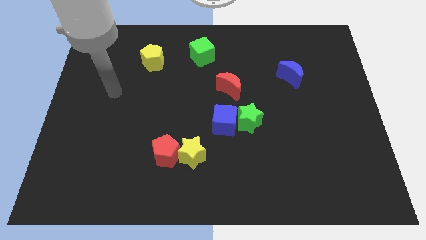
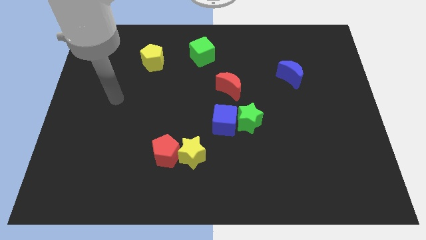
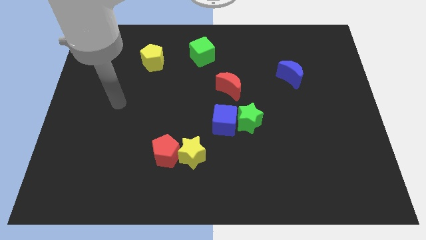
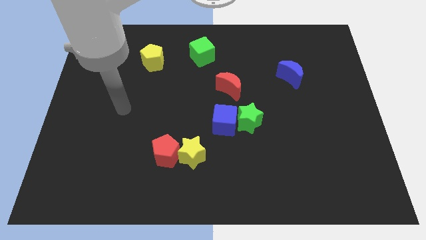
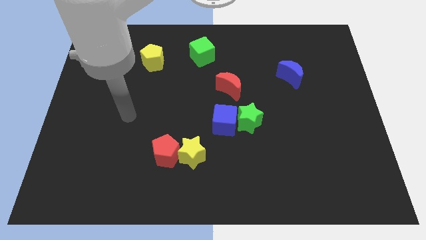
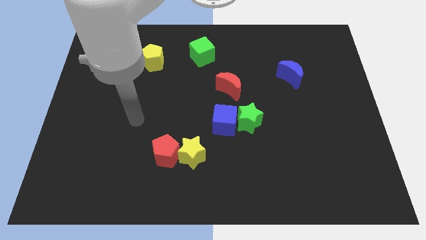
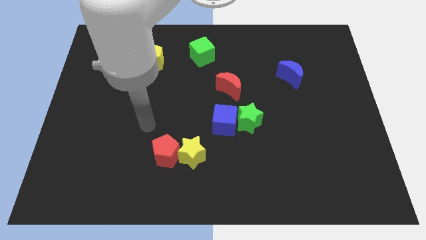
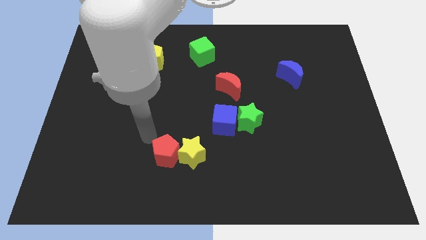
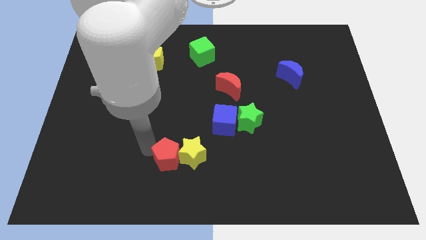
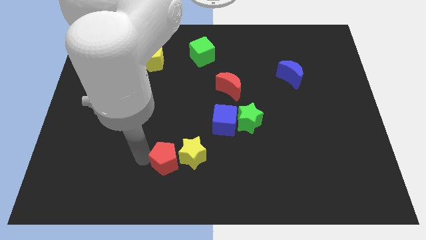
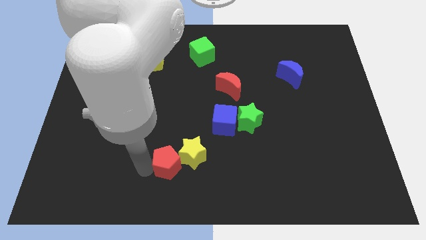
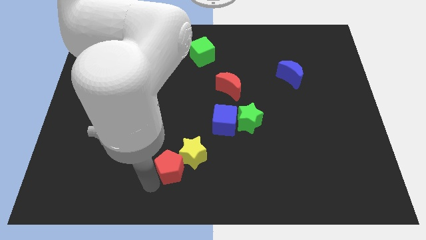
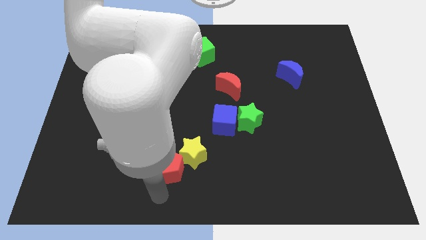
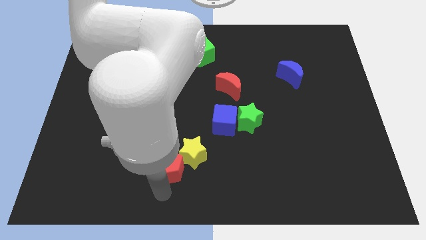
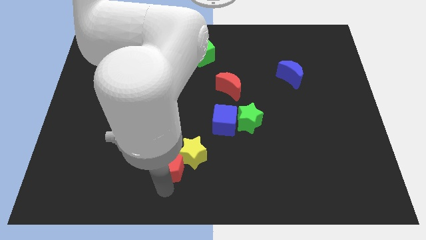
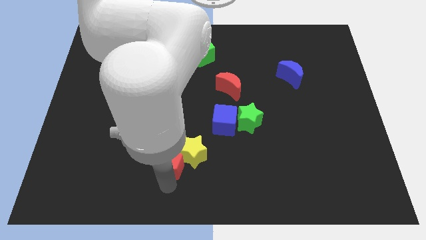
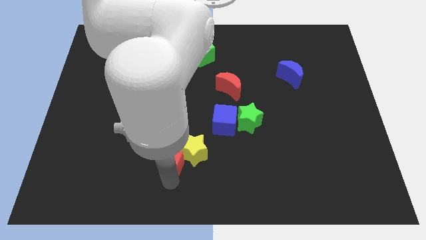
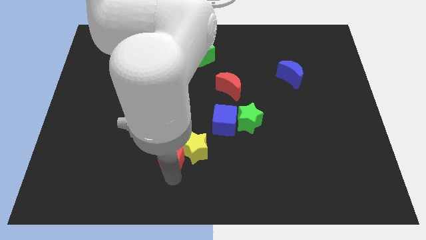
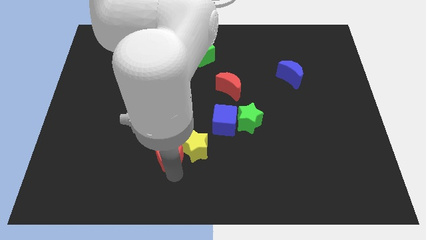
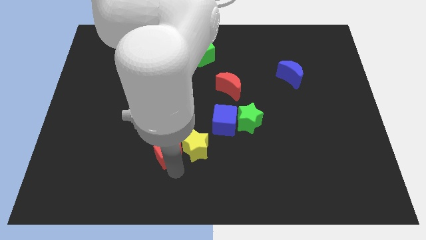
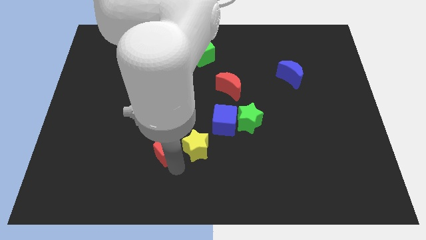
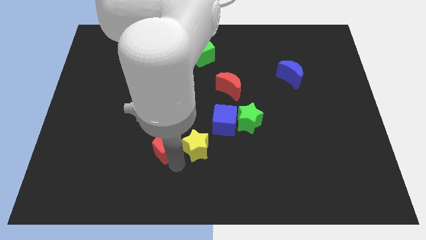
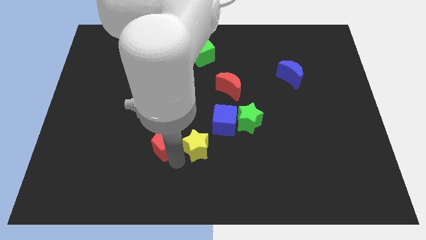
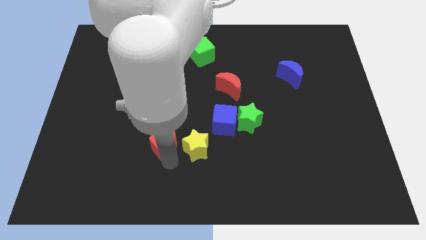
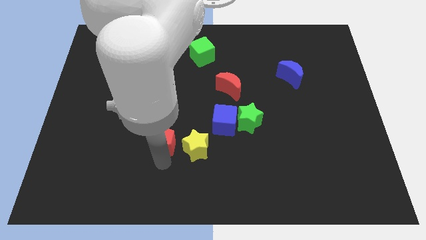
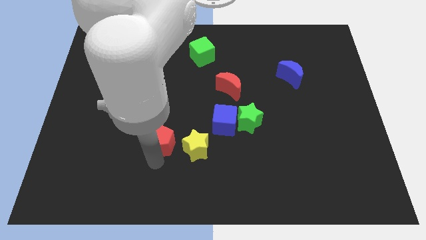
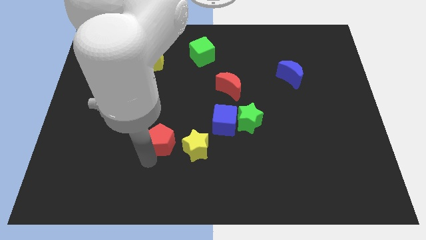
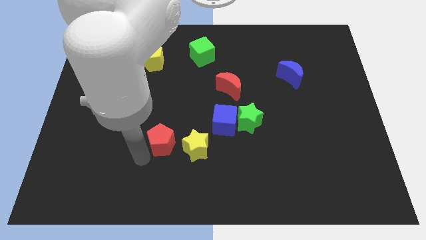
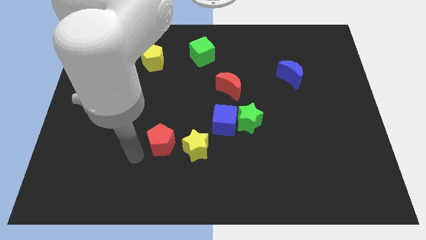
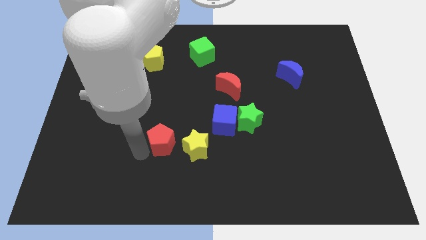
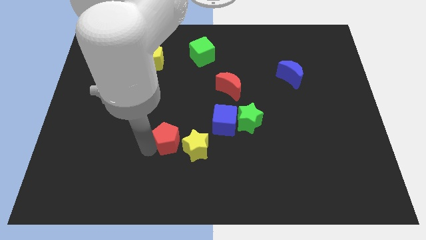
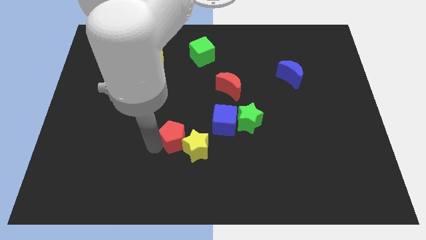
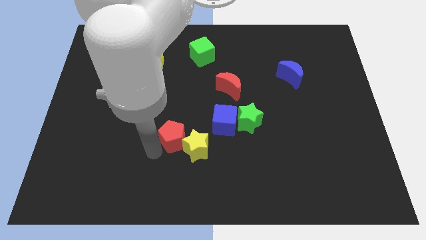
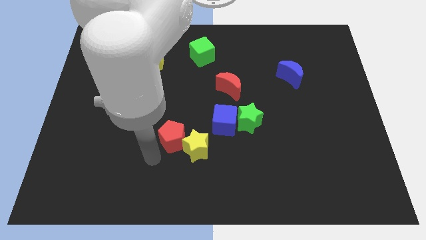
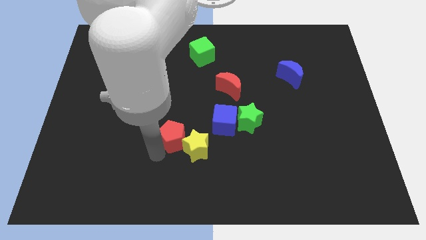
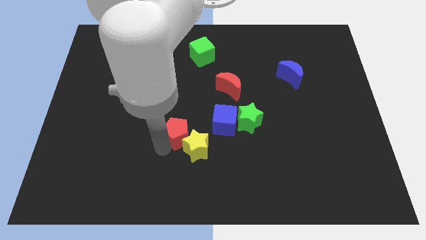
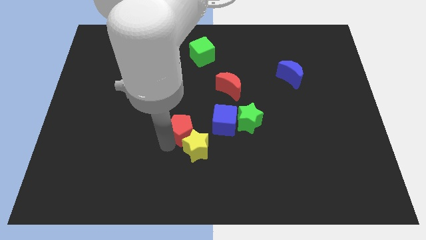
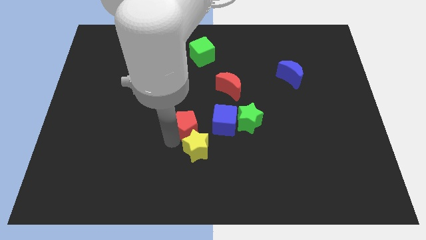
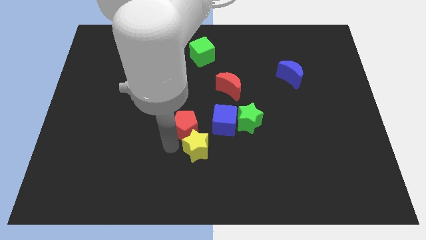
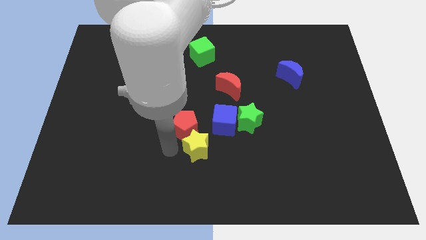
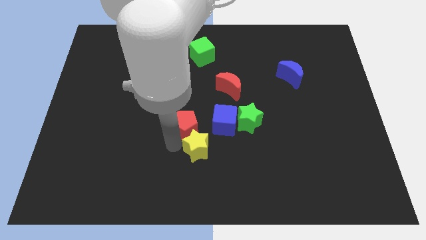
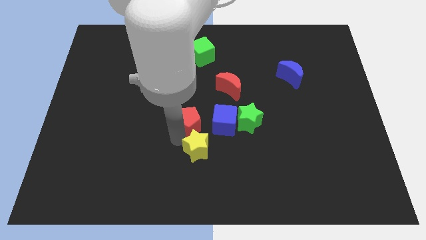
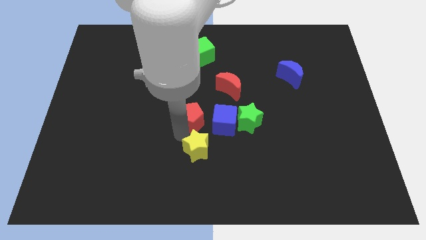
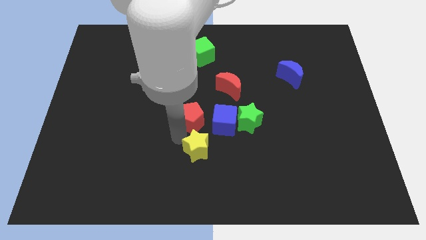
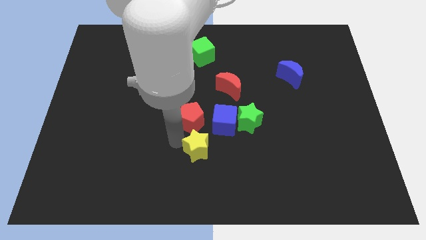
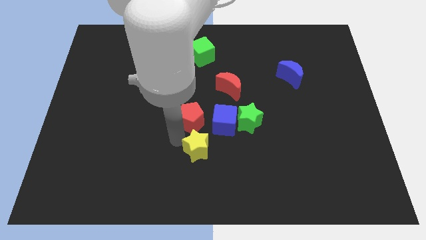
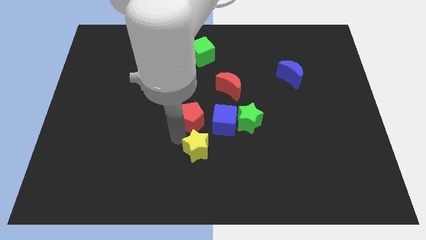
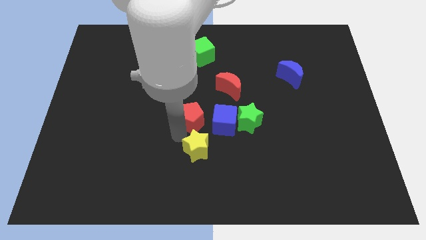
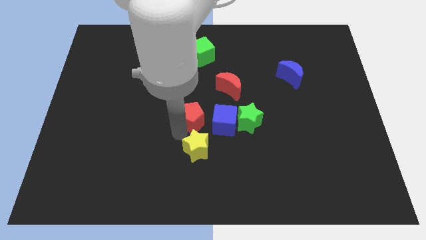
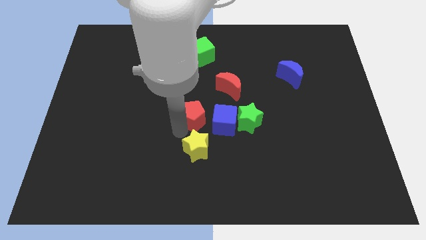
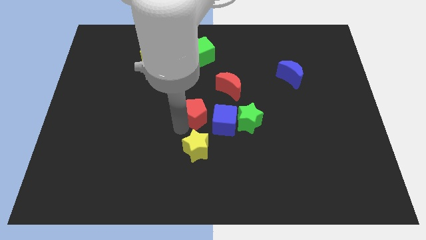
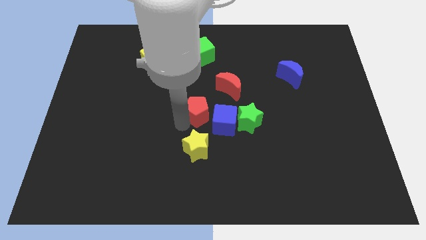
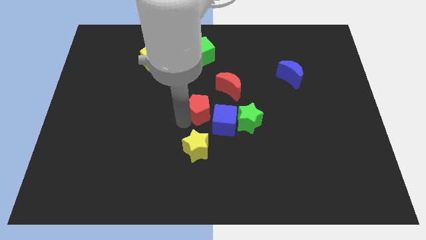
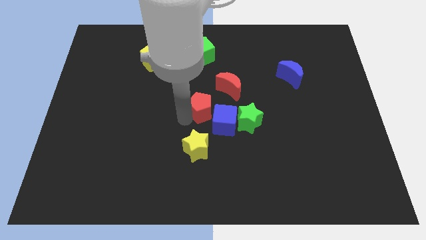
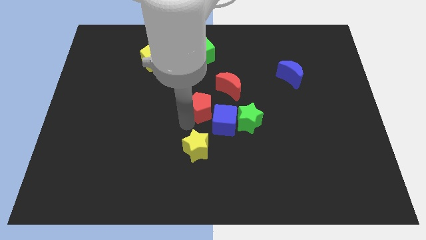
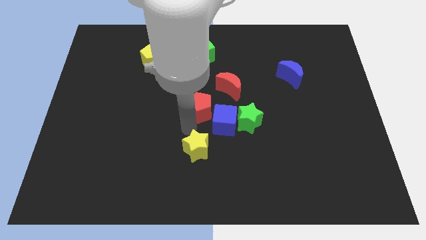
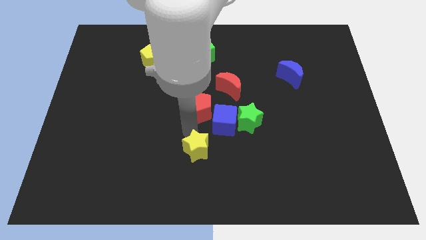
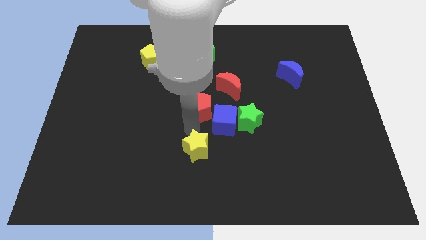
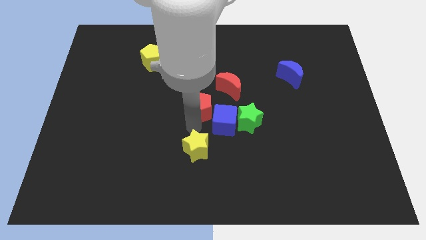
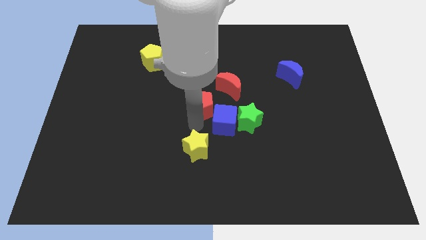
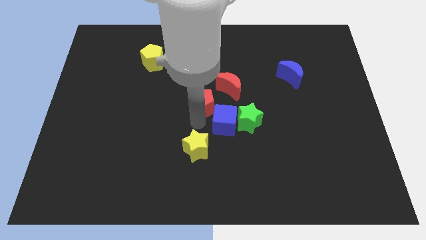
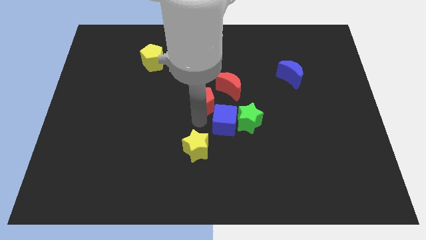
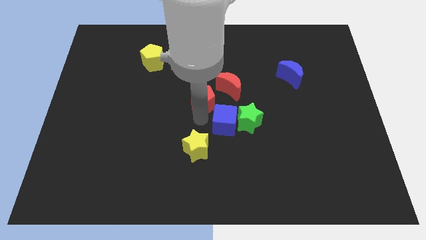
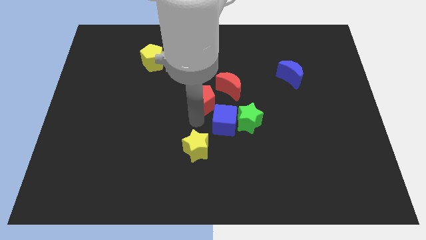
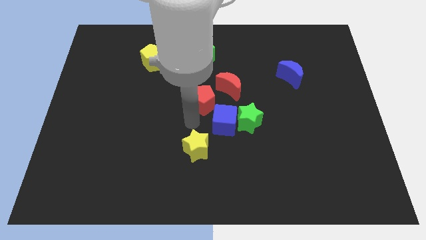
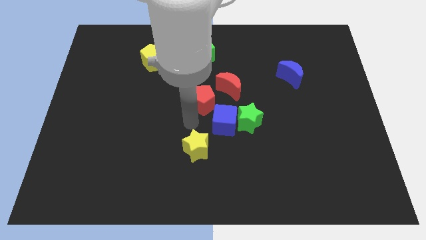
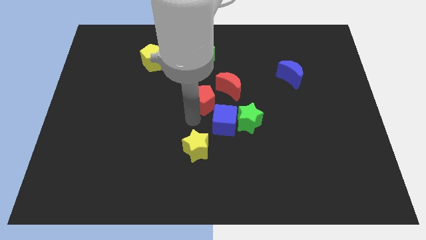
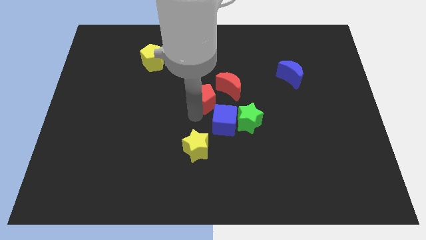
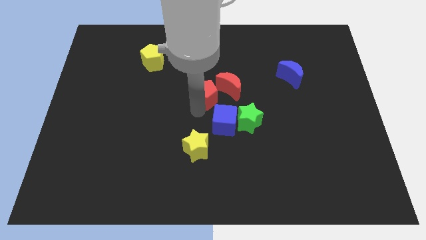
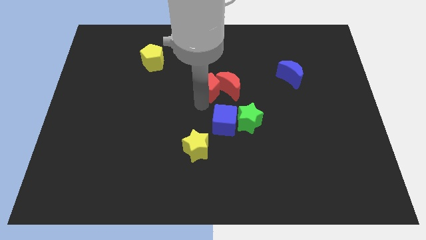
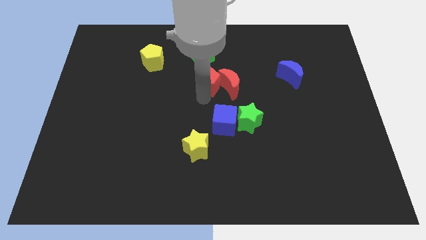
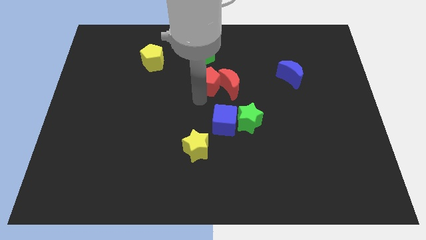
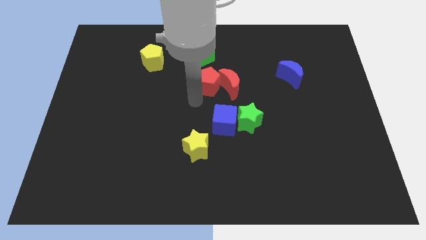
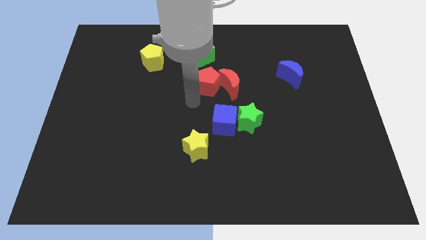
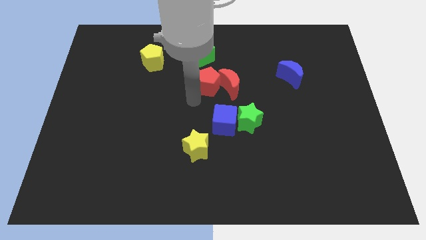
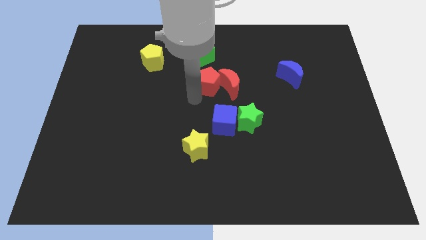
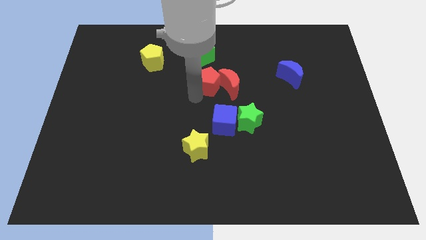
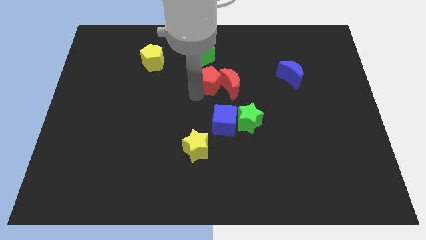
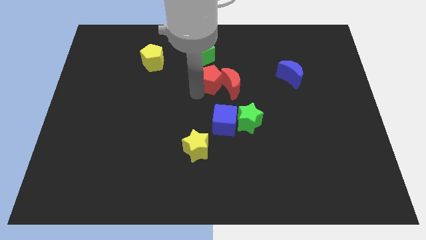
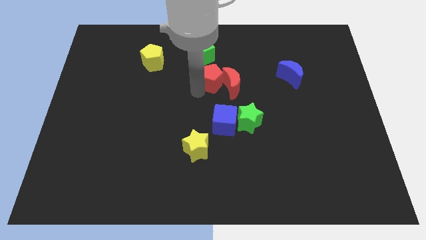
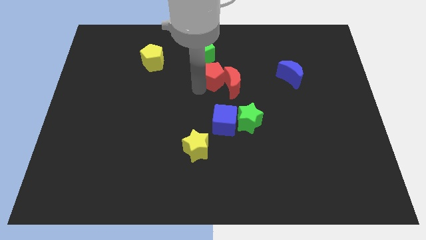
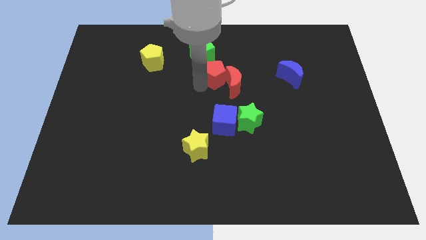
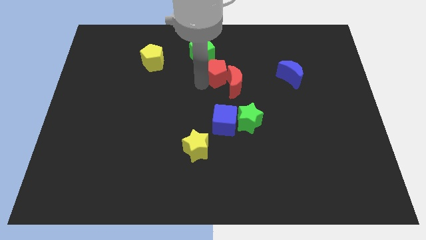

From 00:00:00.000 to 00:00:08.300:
slide the red pentagon upwards and to the right diagonally
